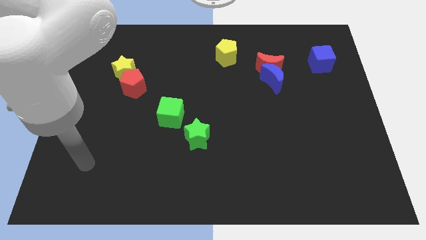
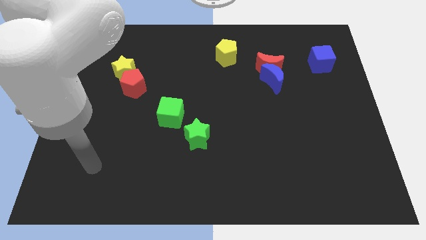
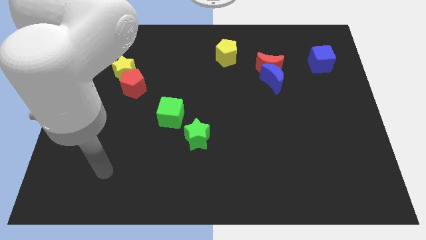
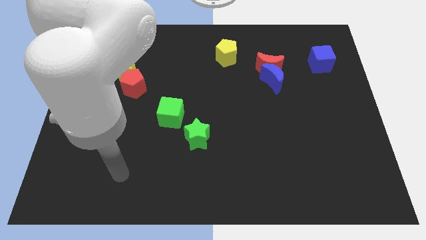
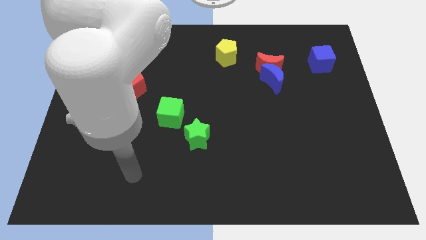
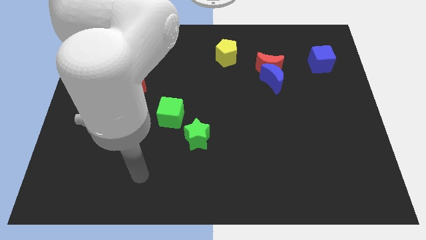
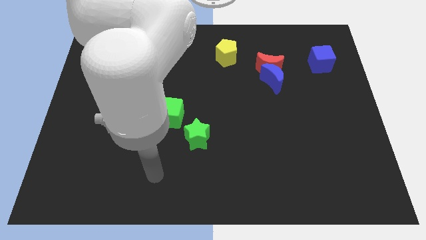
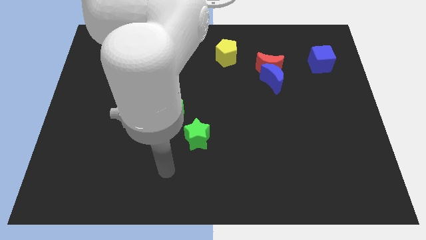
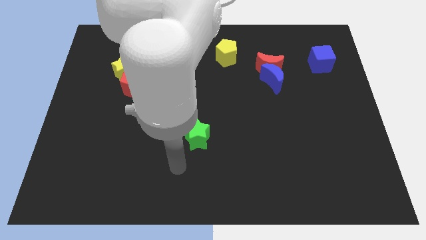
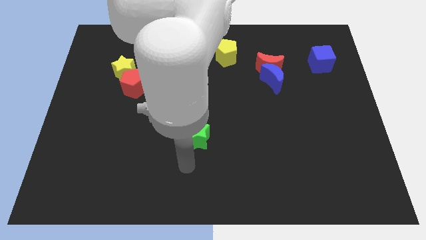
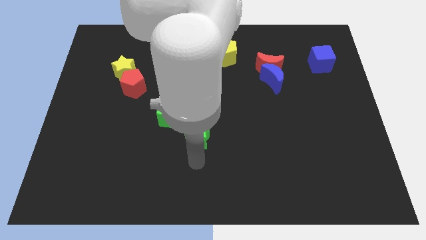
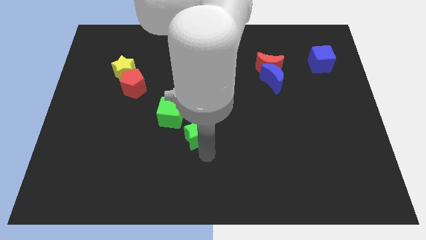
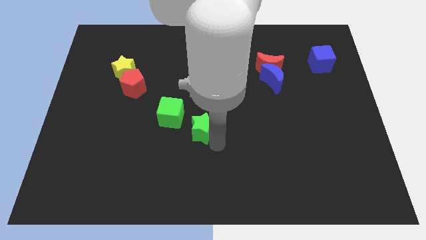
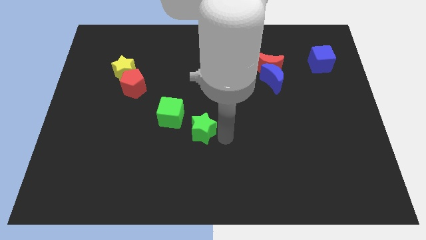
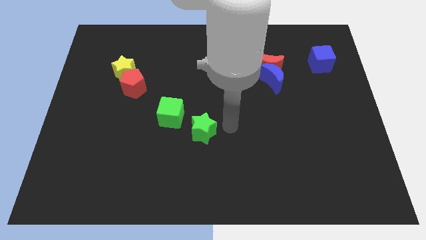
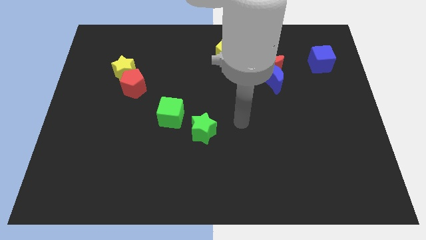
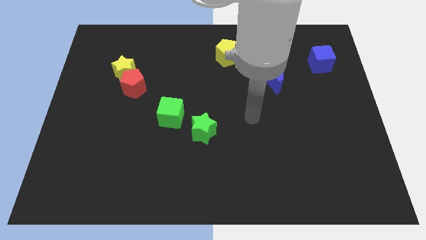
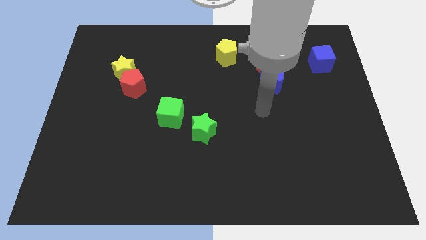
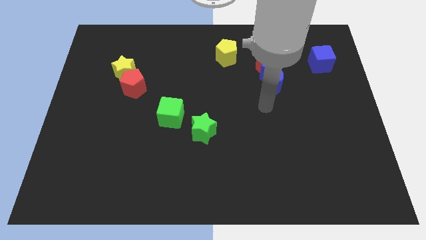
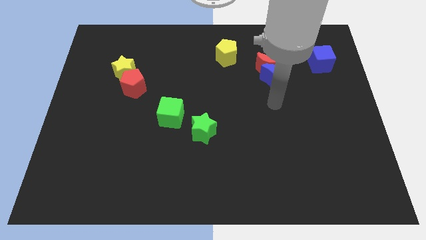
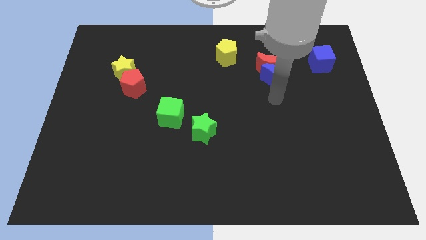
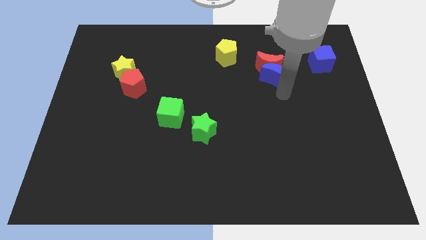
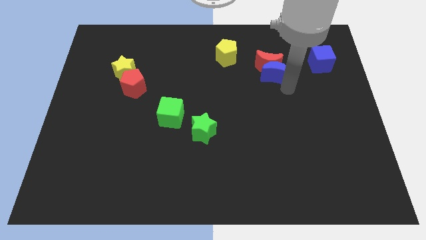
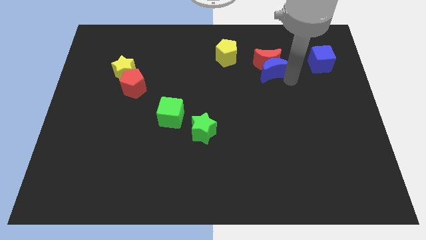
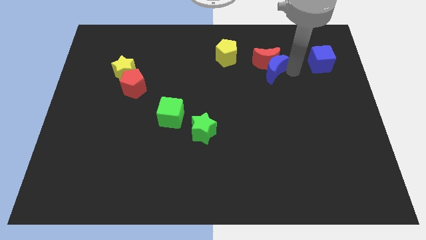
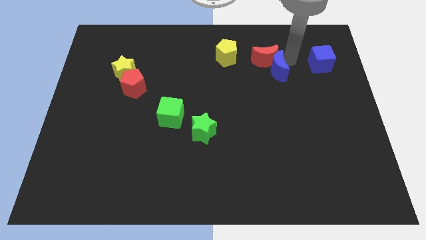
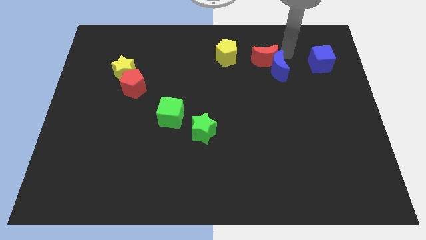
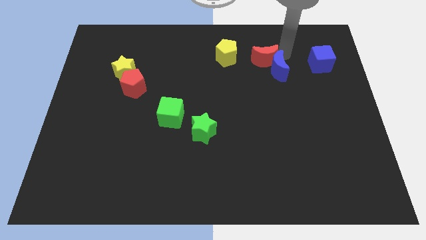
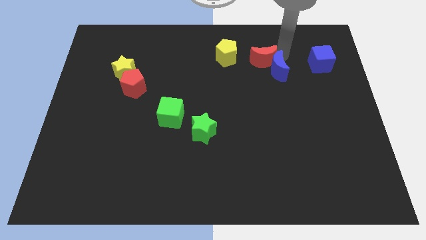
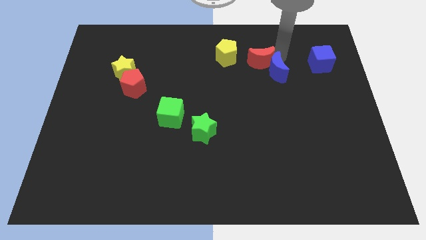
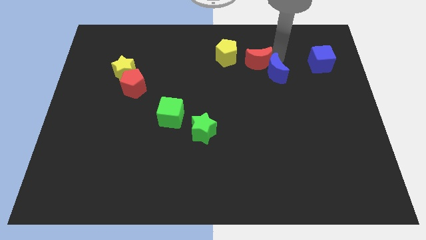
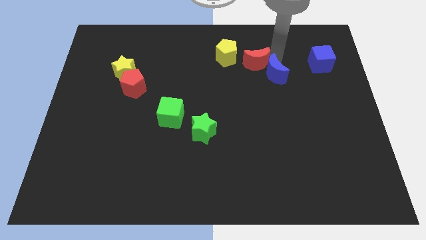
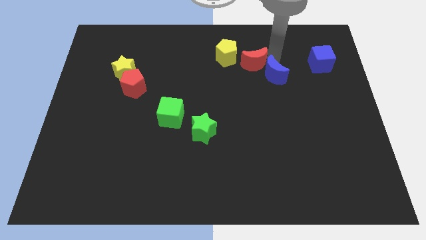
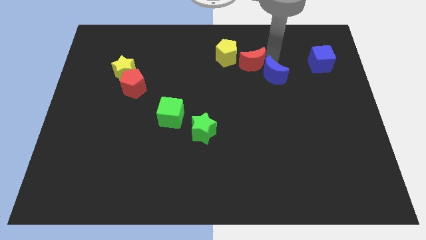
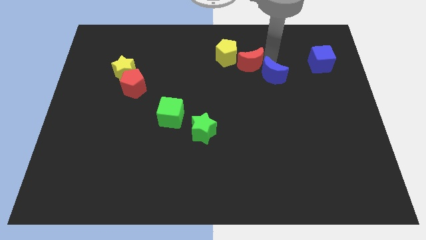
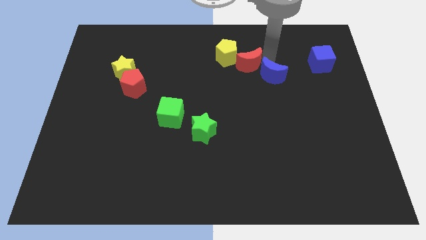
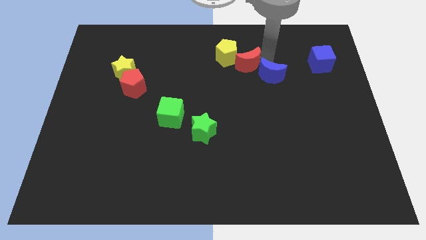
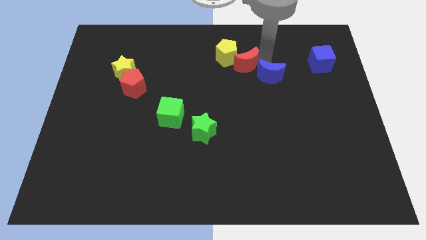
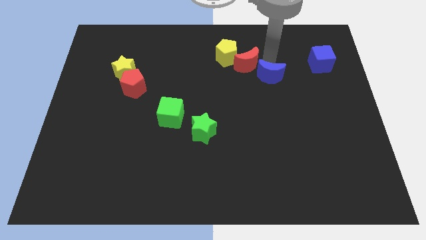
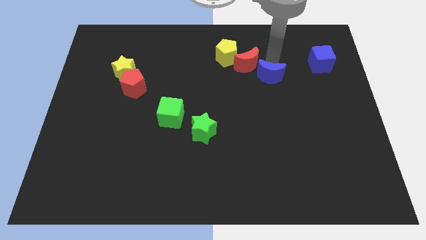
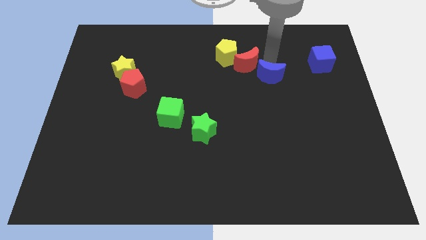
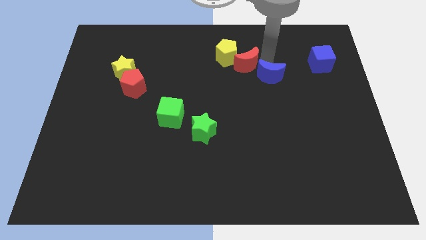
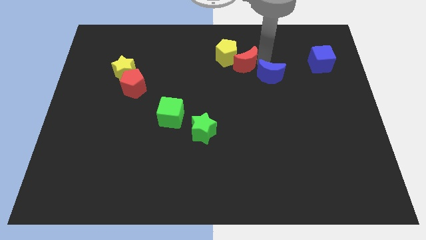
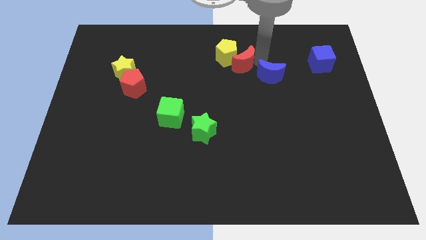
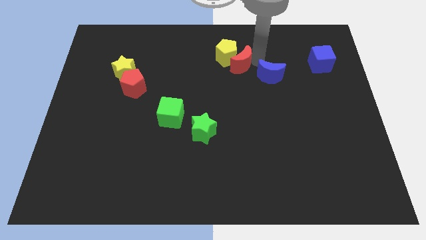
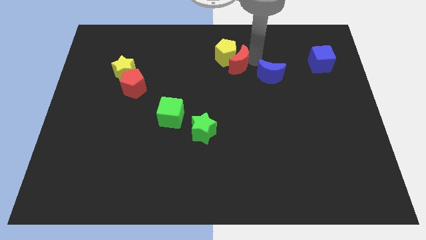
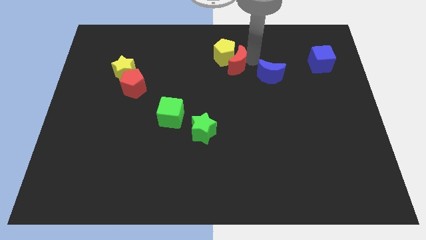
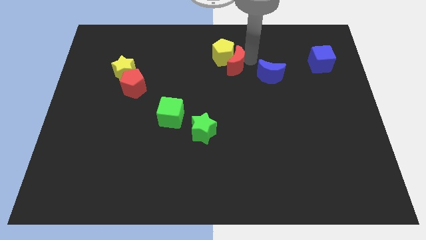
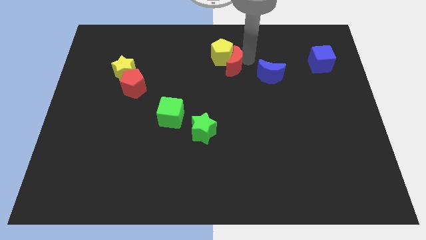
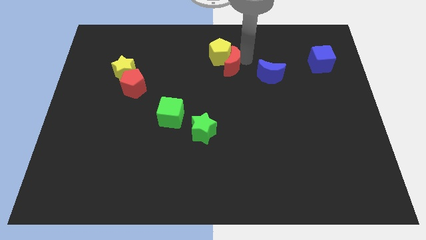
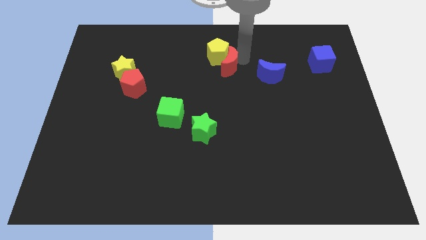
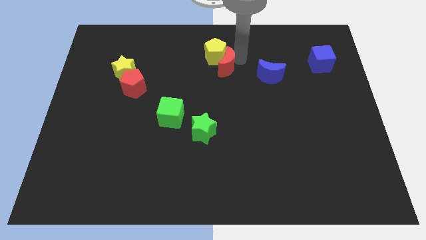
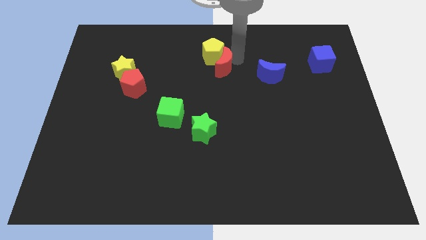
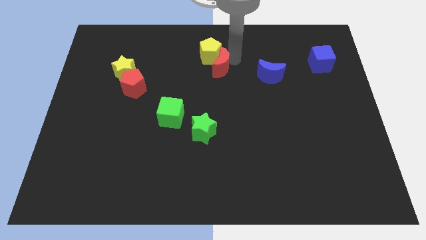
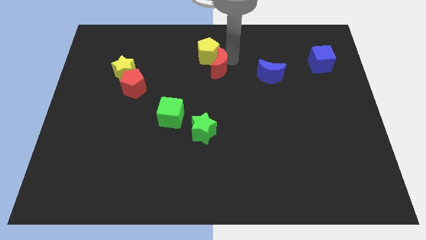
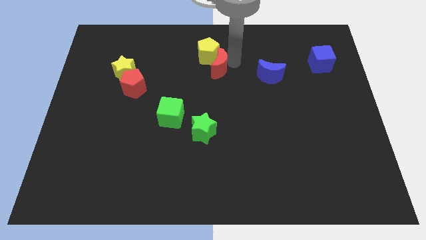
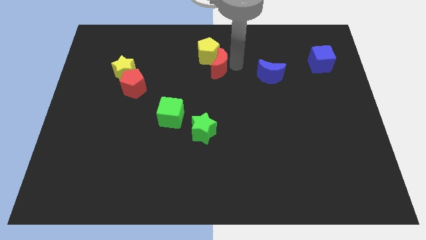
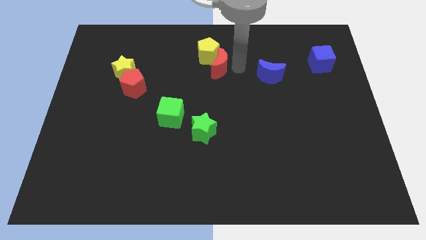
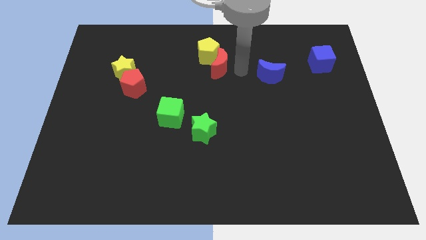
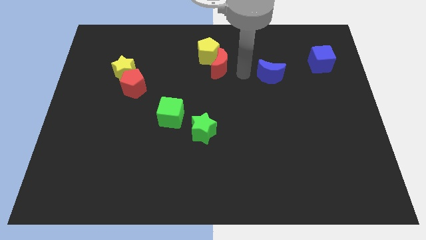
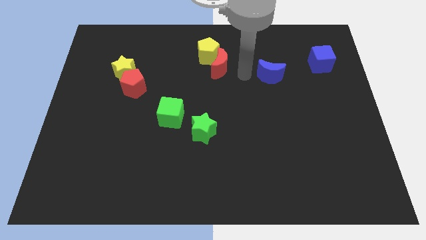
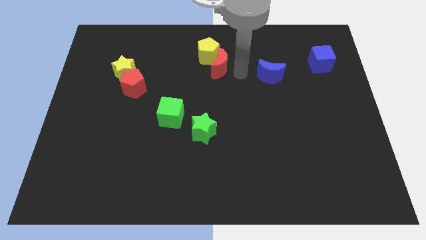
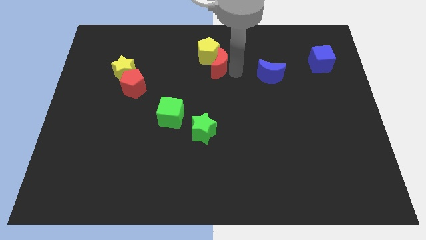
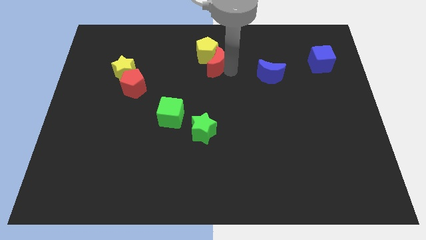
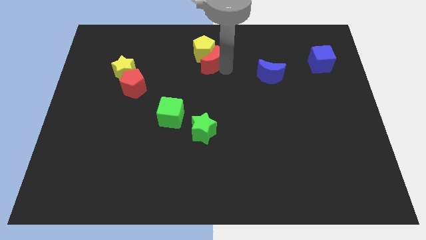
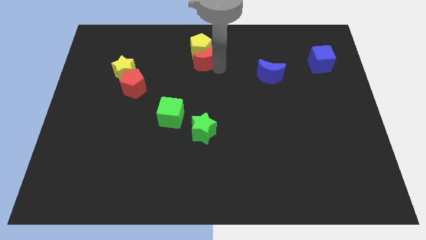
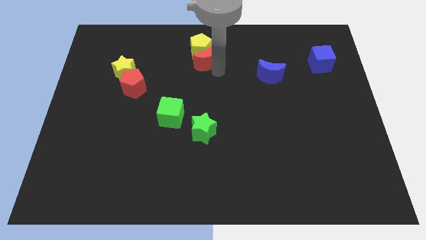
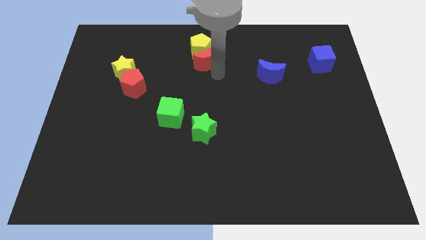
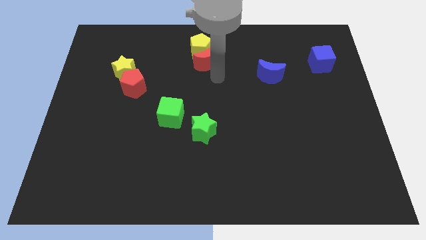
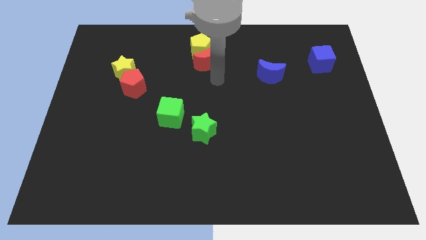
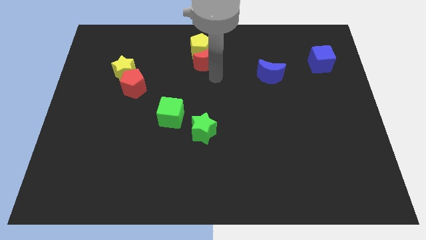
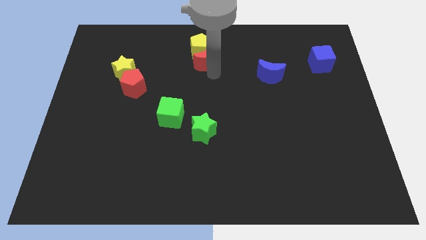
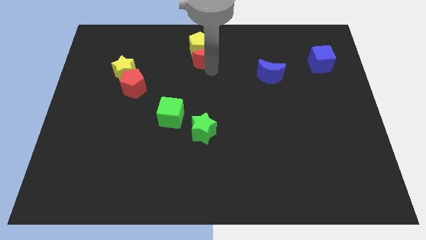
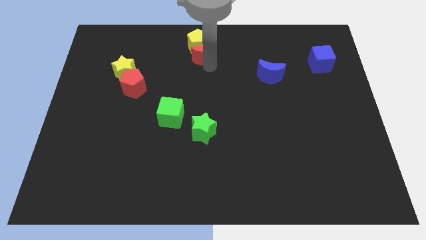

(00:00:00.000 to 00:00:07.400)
slide the red moon to the top
